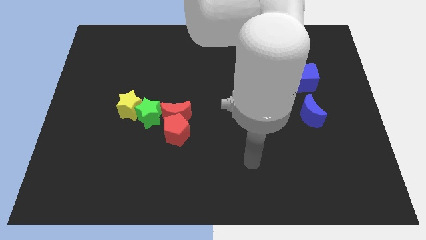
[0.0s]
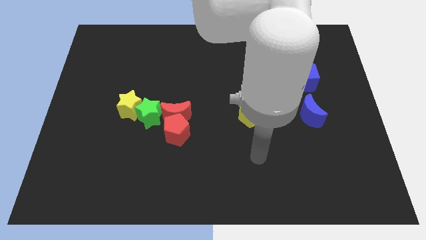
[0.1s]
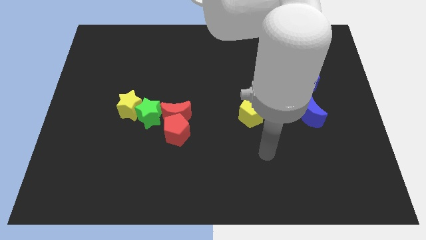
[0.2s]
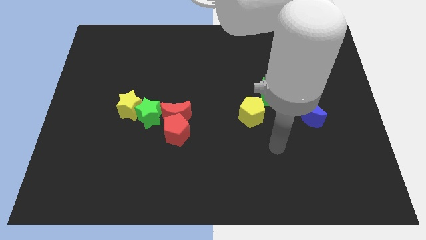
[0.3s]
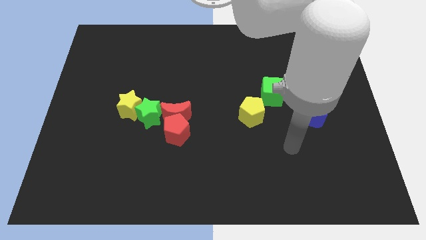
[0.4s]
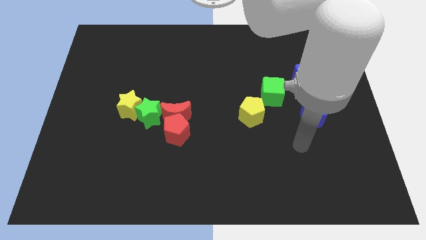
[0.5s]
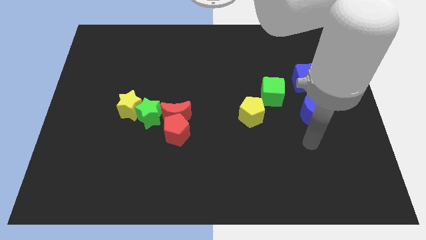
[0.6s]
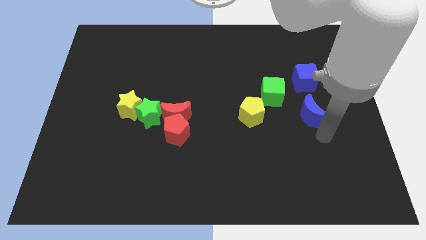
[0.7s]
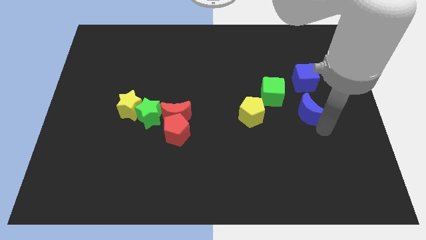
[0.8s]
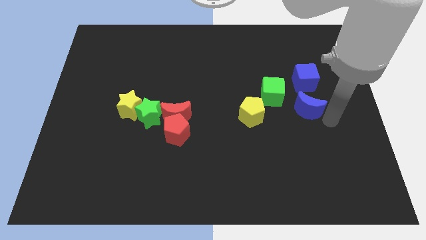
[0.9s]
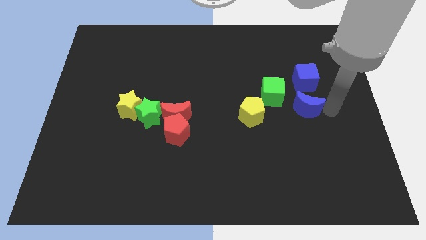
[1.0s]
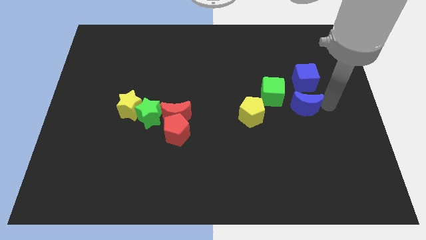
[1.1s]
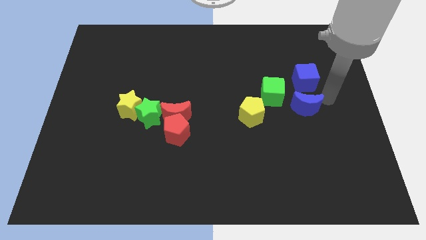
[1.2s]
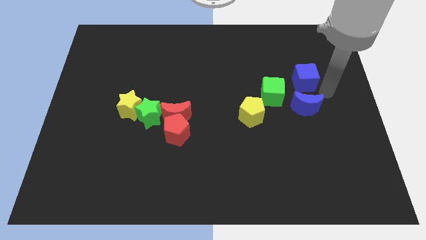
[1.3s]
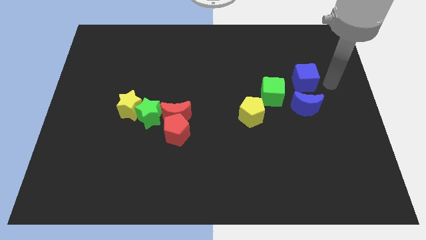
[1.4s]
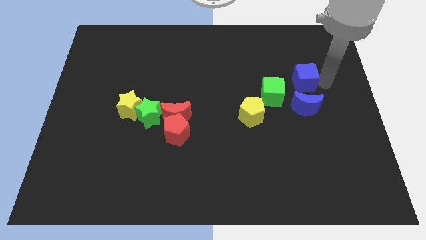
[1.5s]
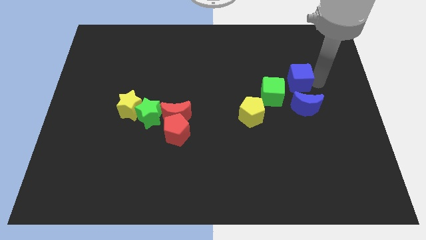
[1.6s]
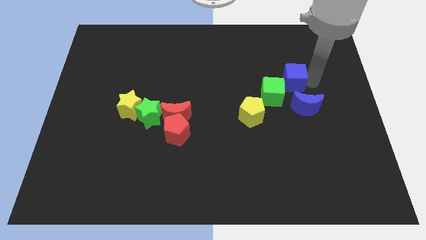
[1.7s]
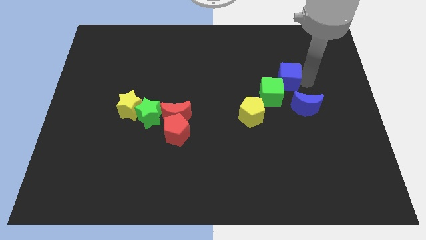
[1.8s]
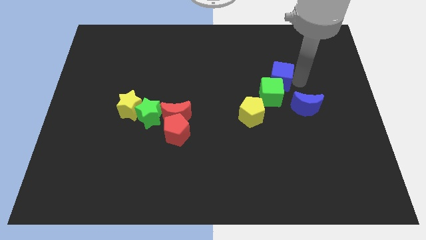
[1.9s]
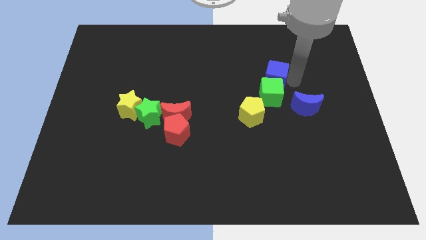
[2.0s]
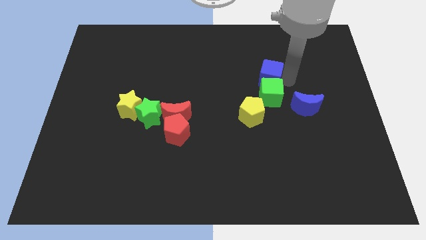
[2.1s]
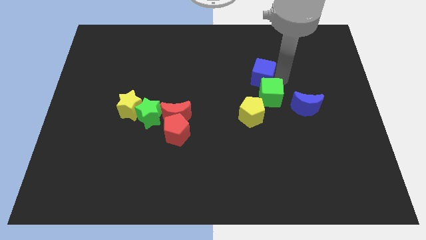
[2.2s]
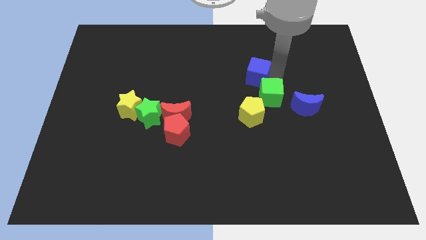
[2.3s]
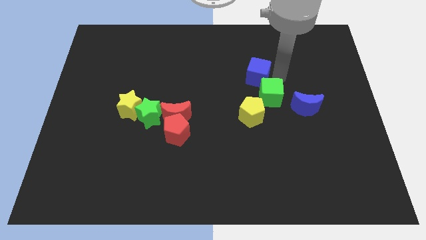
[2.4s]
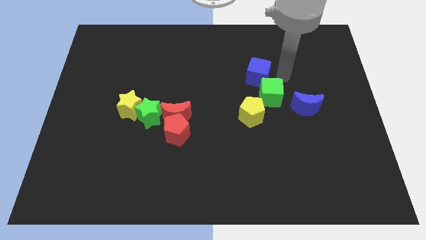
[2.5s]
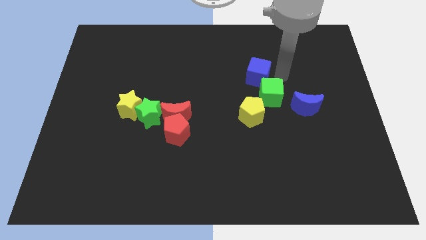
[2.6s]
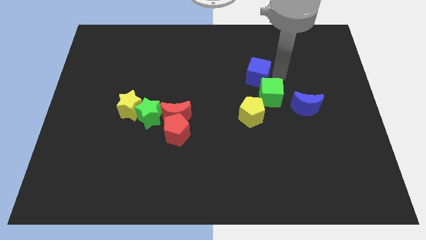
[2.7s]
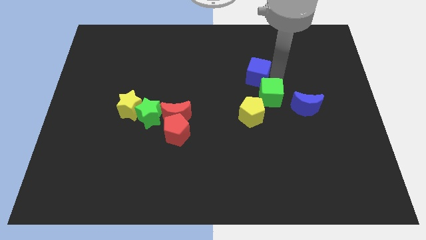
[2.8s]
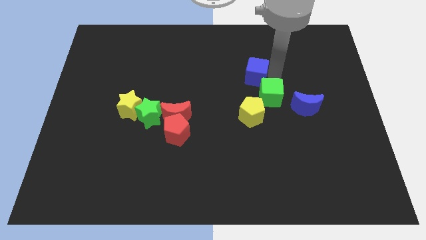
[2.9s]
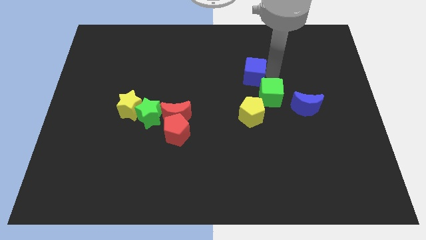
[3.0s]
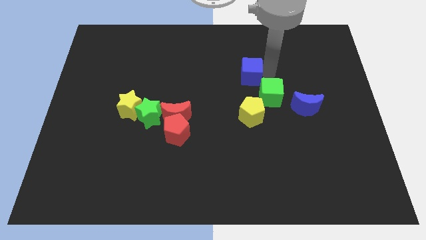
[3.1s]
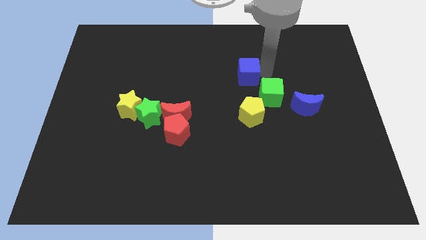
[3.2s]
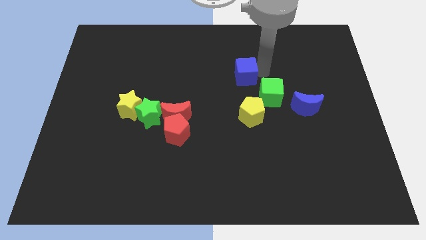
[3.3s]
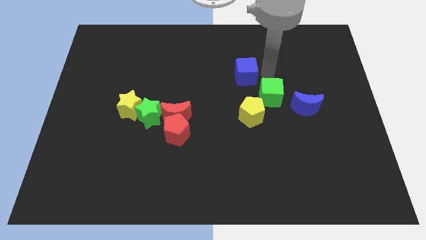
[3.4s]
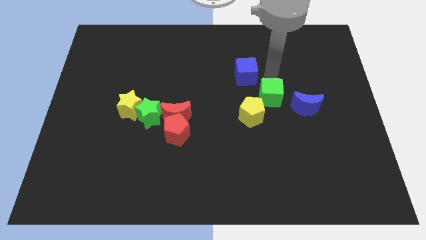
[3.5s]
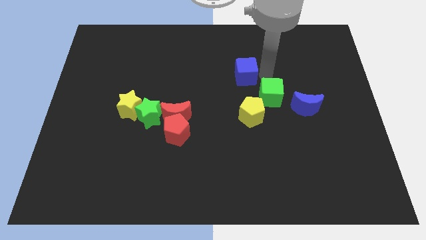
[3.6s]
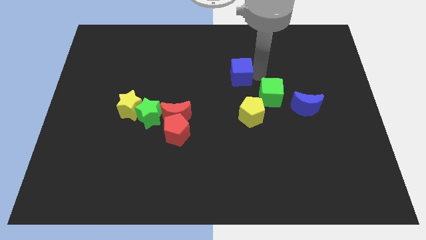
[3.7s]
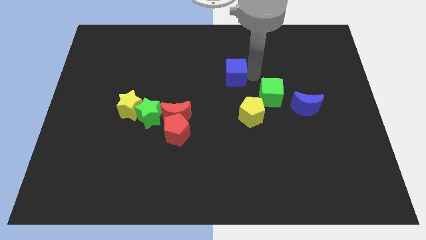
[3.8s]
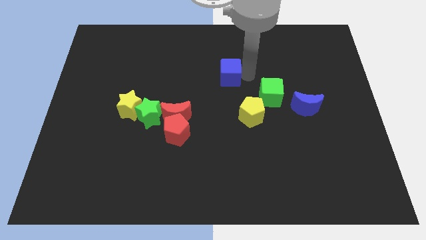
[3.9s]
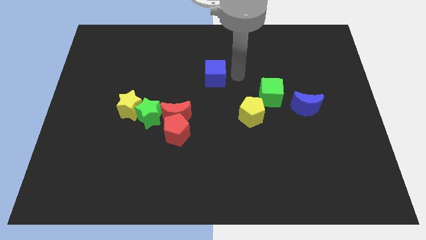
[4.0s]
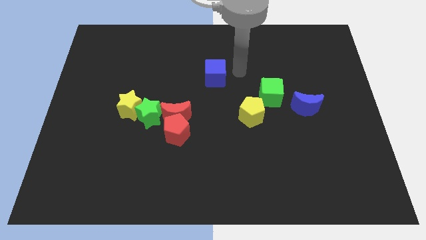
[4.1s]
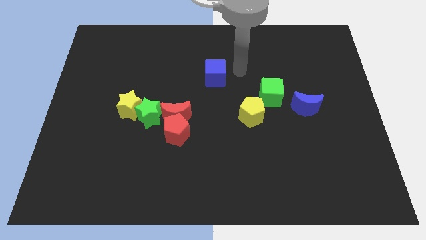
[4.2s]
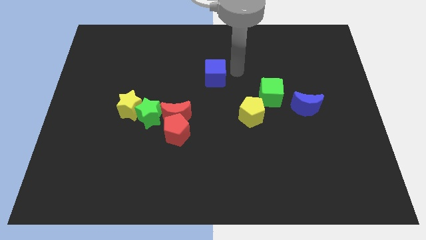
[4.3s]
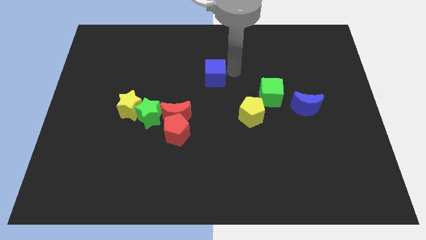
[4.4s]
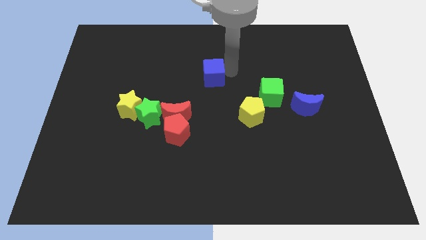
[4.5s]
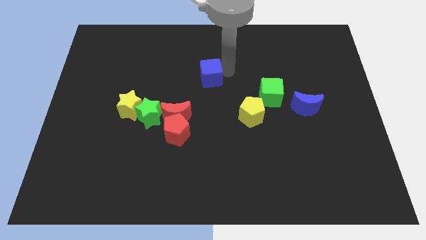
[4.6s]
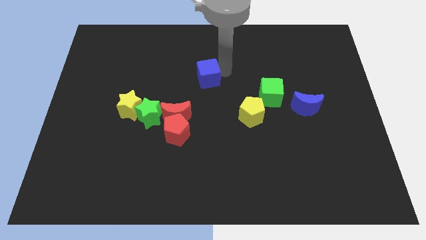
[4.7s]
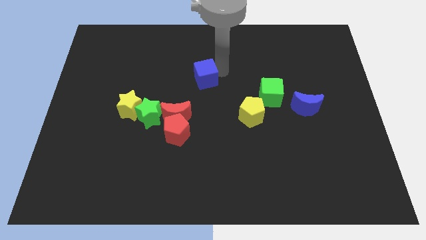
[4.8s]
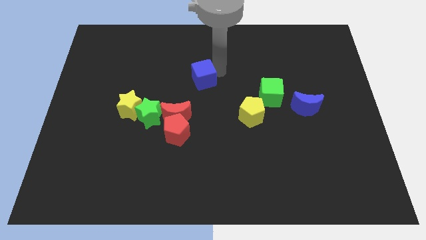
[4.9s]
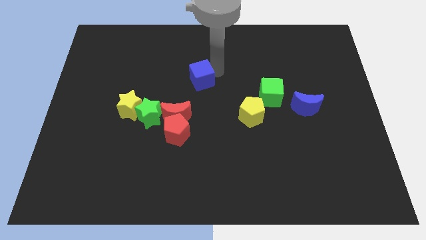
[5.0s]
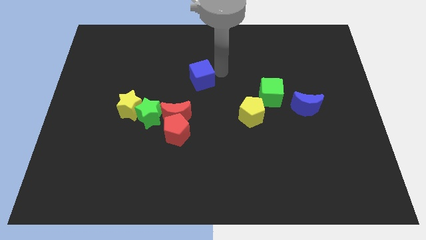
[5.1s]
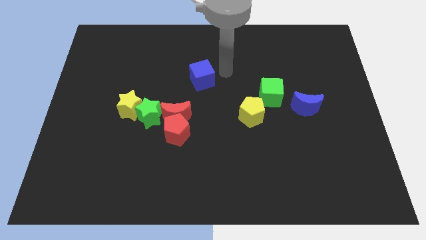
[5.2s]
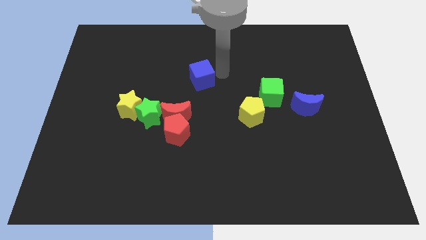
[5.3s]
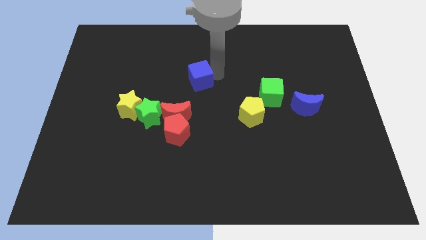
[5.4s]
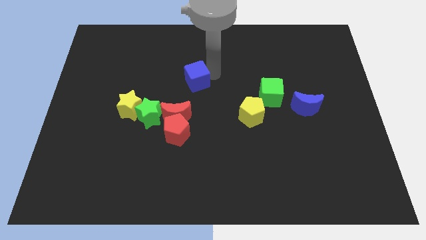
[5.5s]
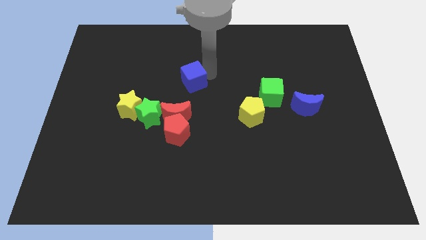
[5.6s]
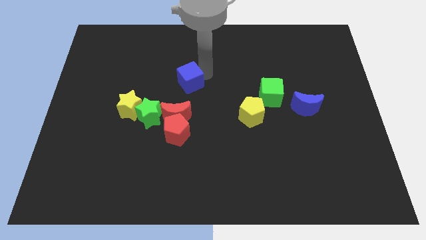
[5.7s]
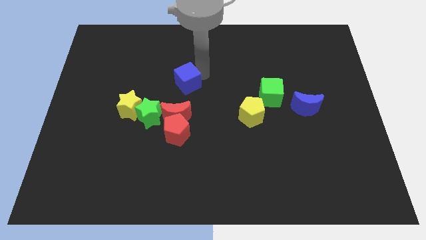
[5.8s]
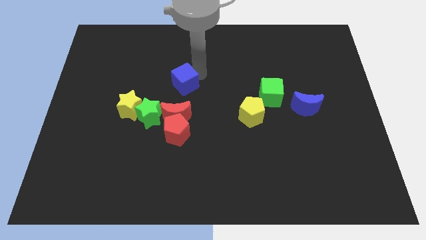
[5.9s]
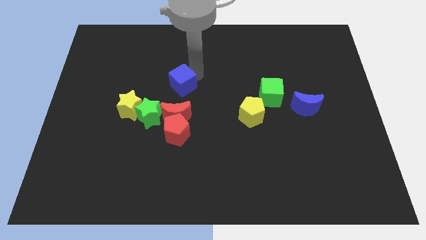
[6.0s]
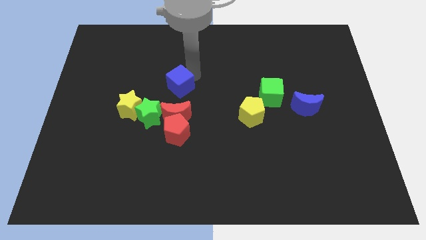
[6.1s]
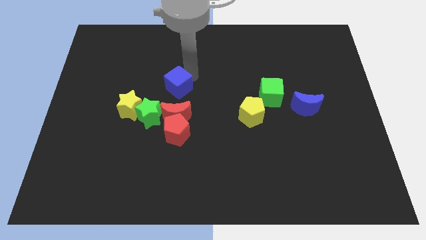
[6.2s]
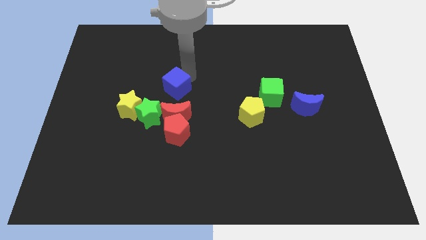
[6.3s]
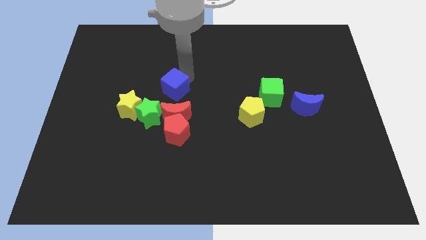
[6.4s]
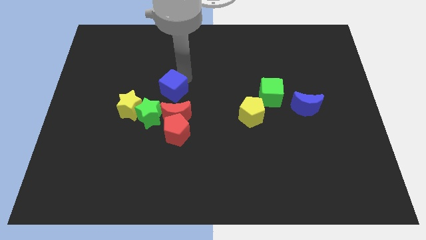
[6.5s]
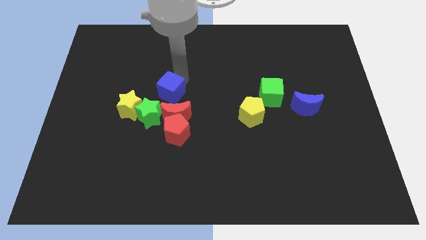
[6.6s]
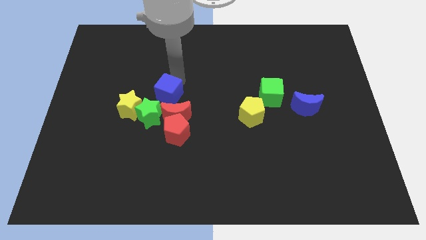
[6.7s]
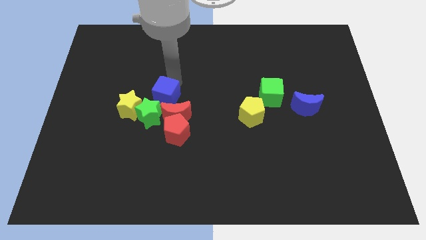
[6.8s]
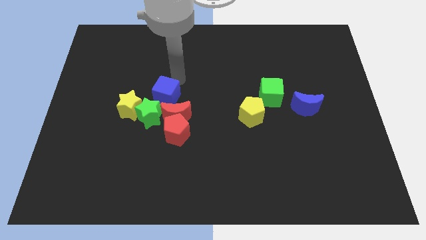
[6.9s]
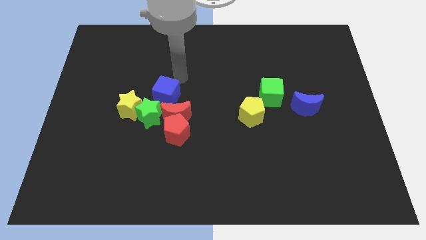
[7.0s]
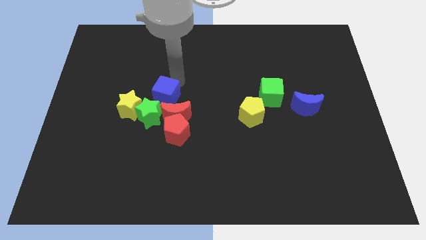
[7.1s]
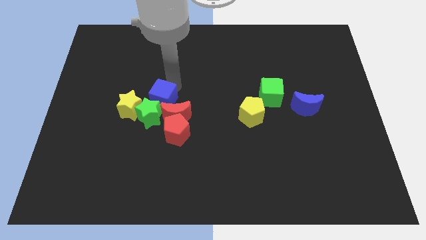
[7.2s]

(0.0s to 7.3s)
move the blue cube towards the green star
